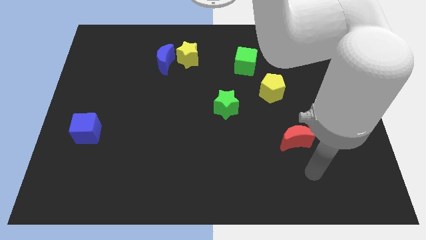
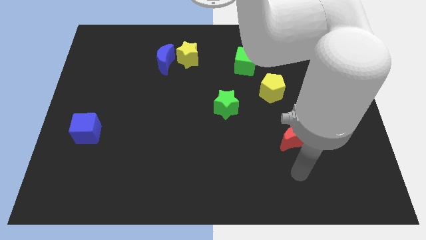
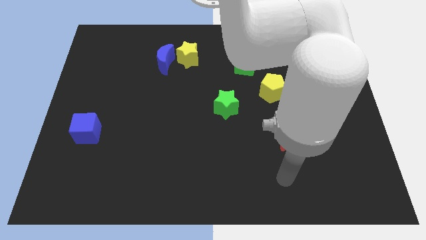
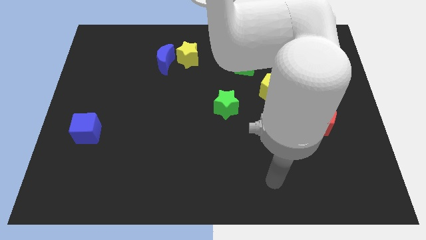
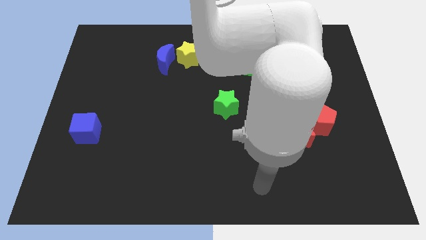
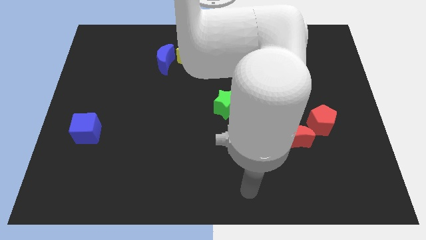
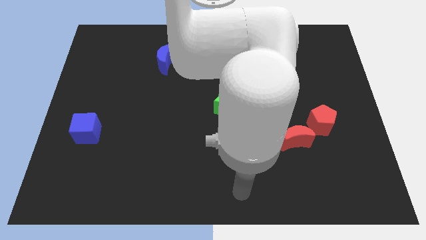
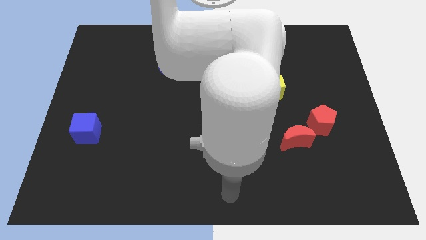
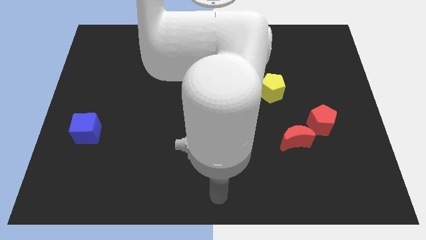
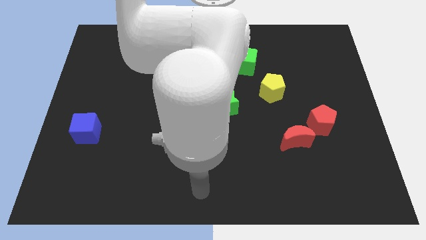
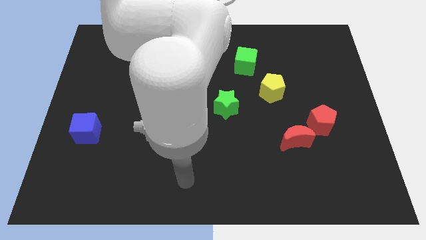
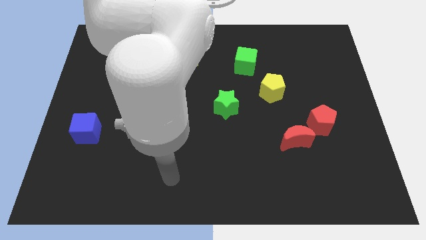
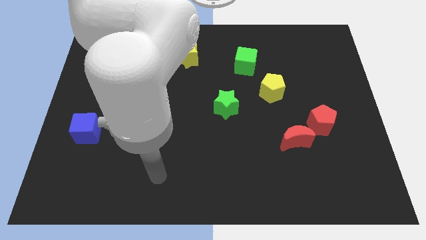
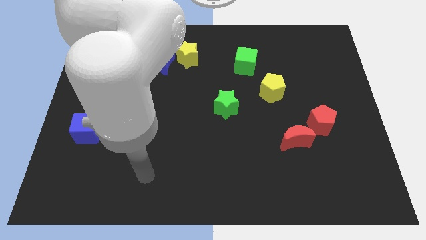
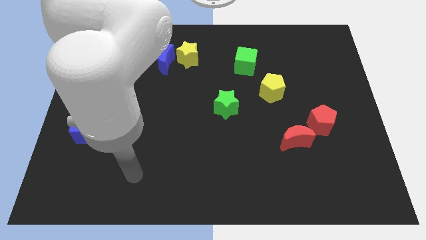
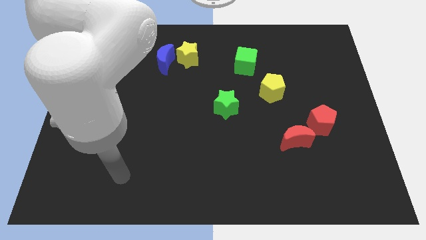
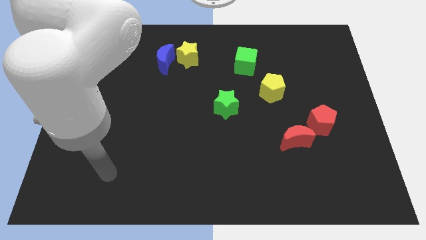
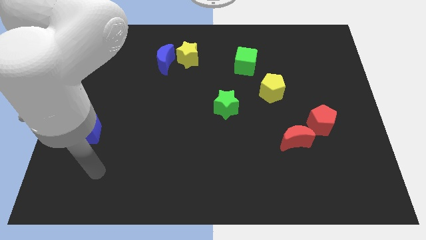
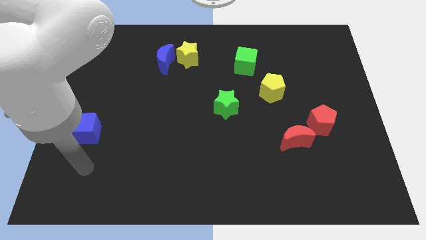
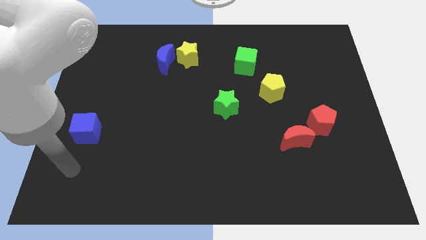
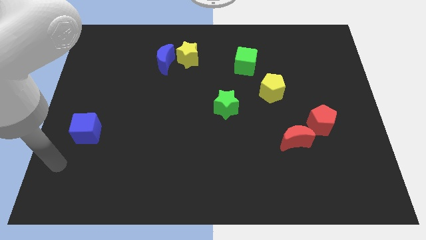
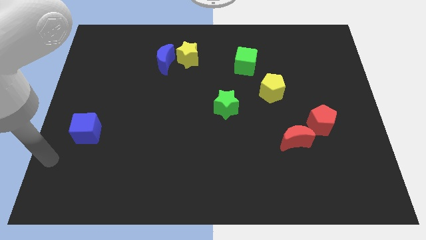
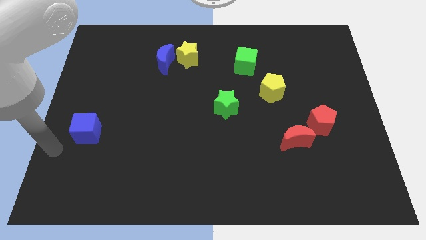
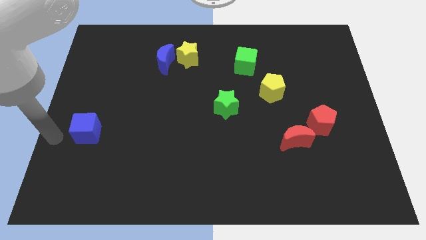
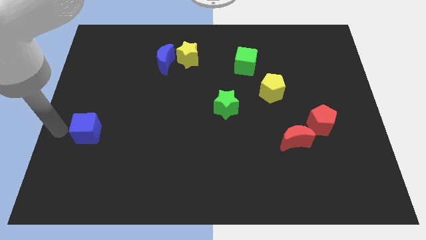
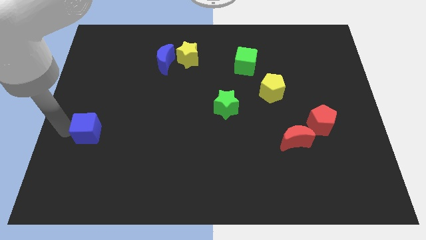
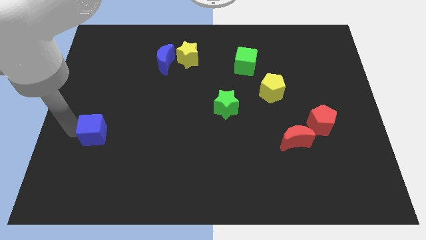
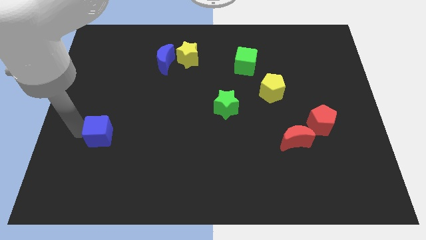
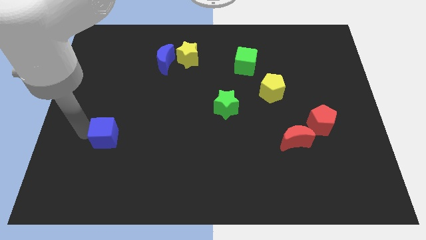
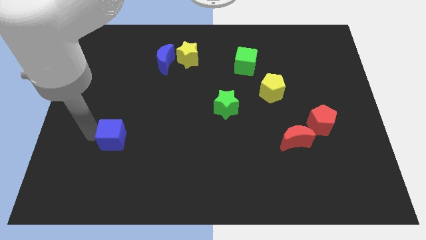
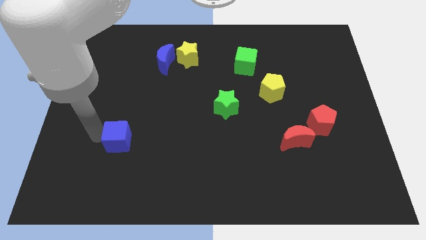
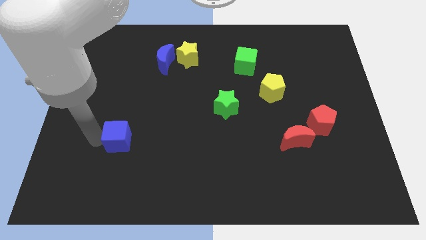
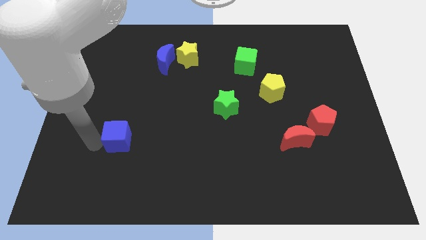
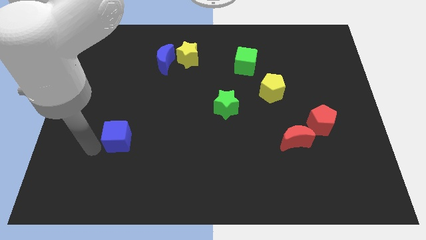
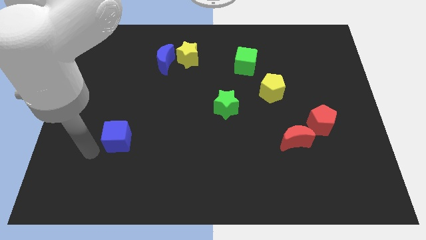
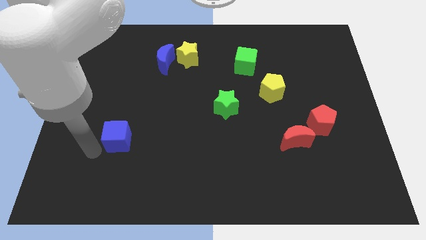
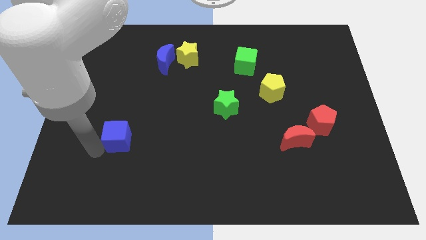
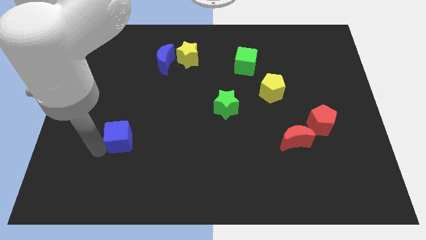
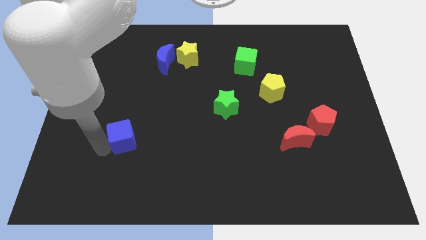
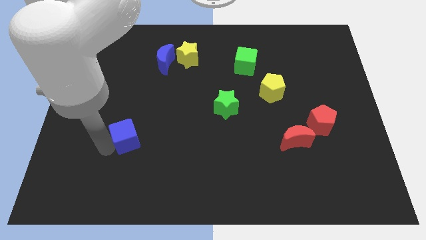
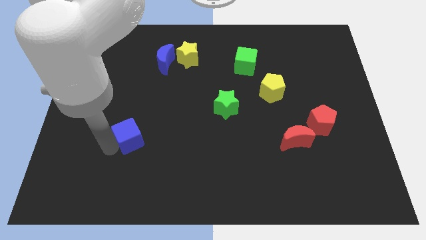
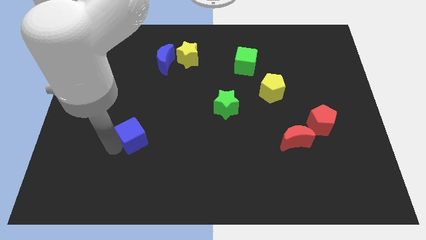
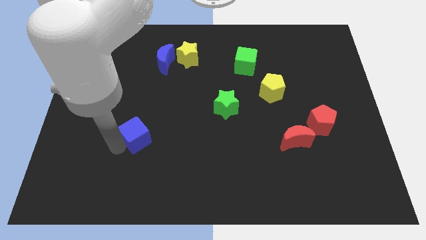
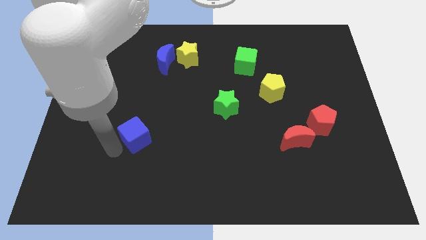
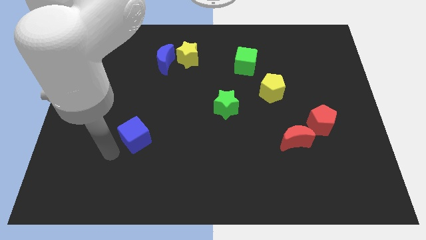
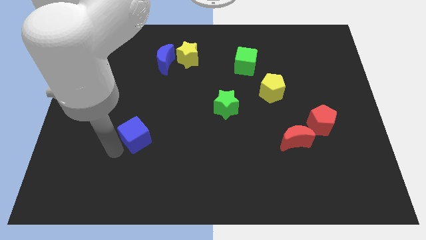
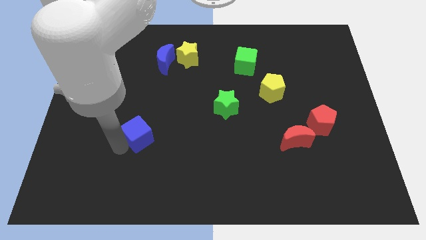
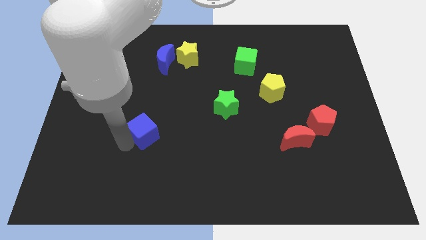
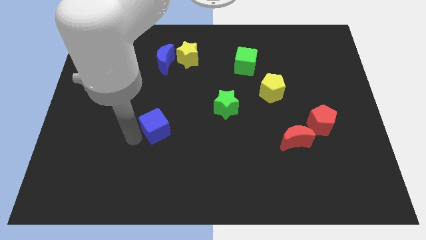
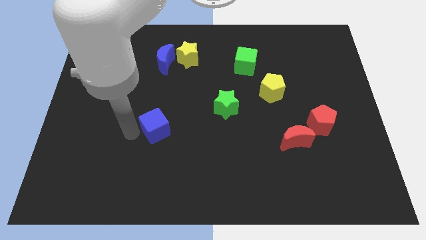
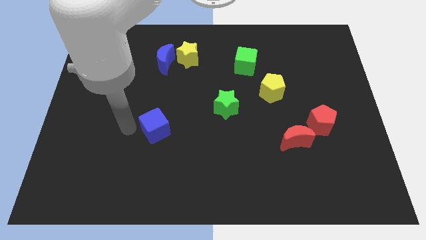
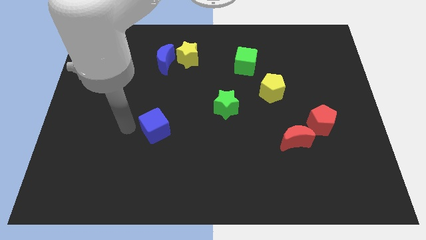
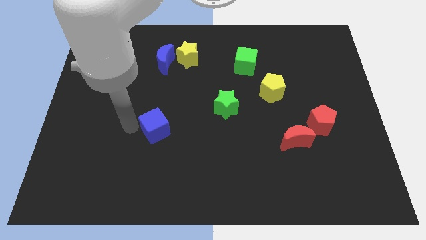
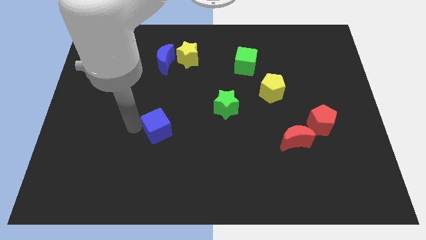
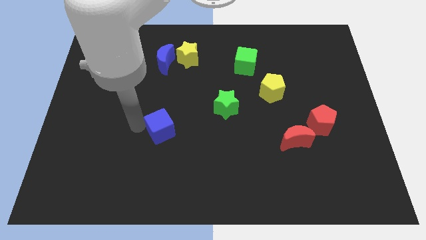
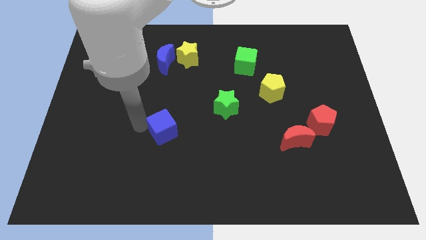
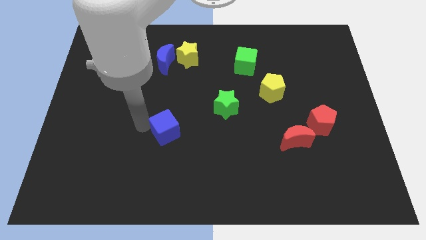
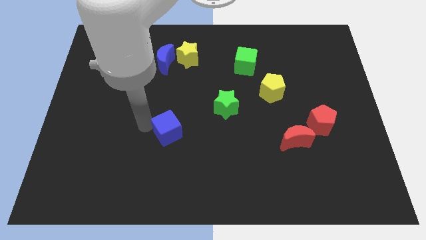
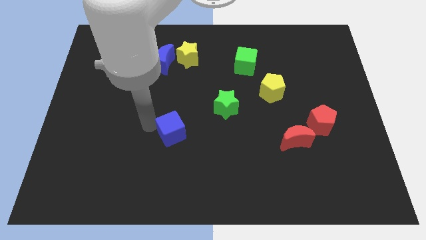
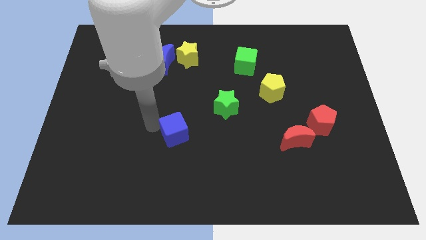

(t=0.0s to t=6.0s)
move the blue cube to the right

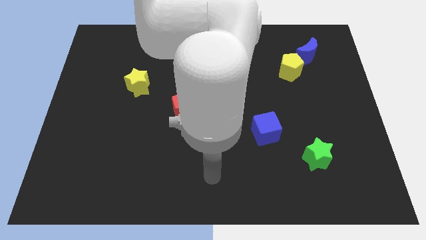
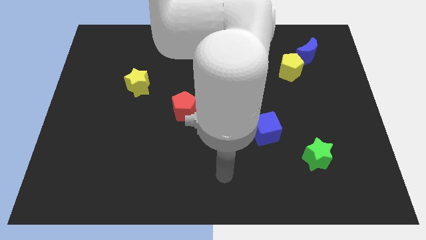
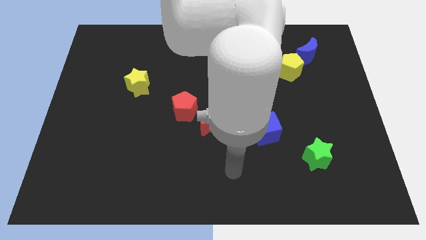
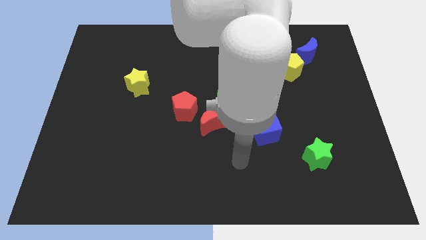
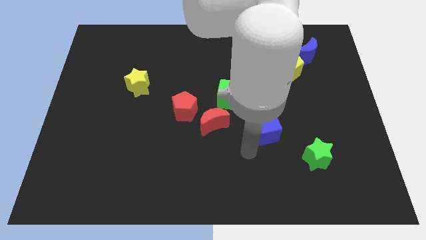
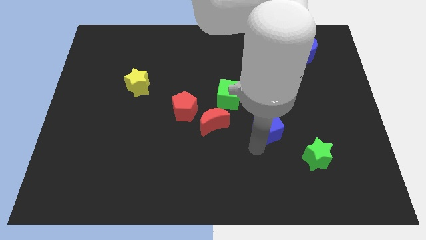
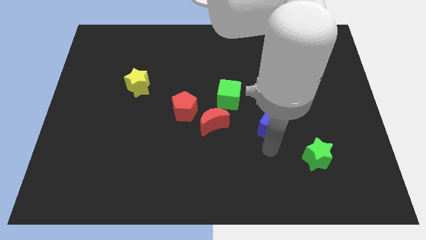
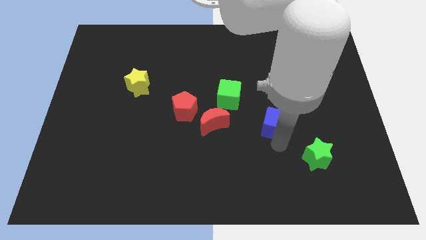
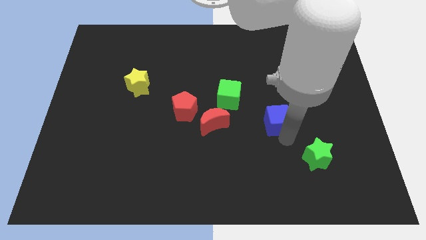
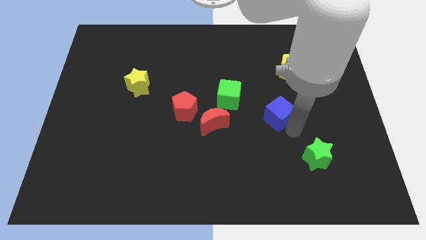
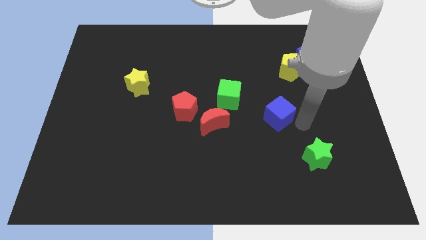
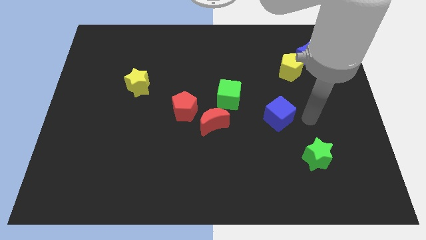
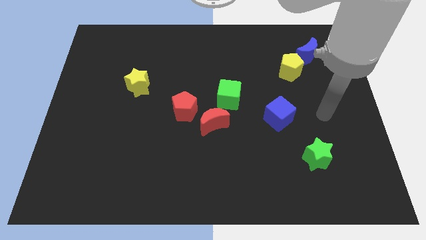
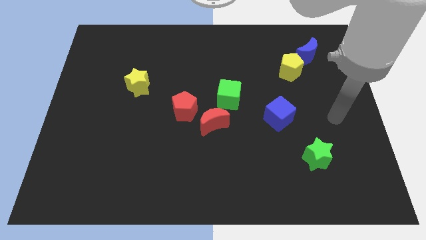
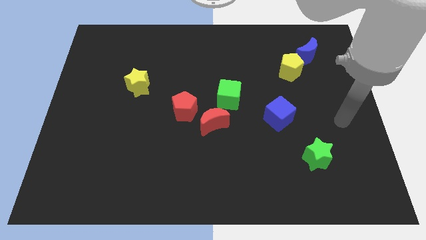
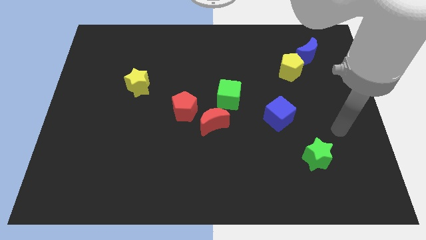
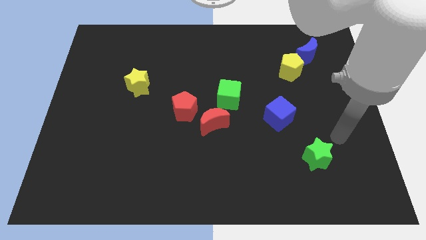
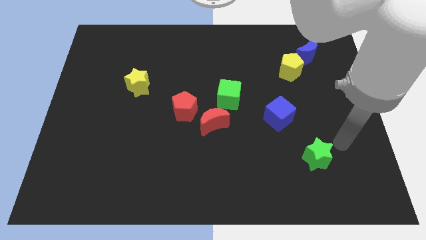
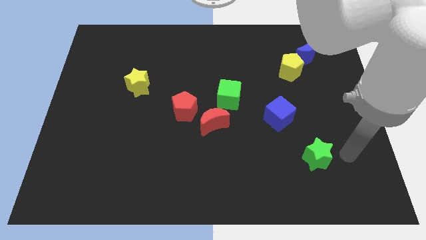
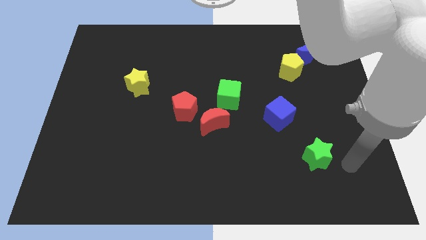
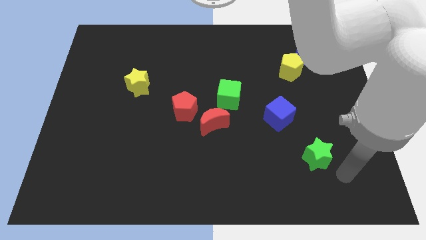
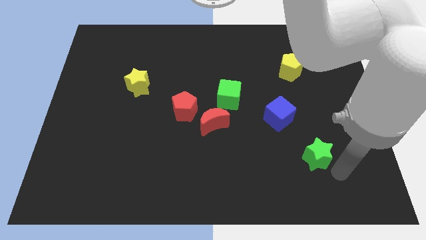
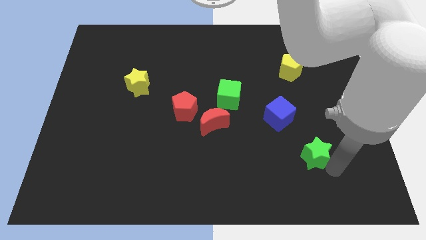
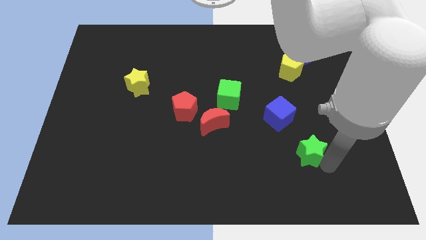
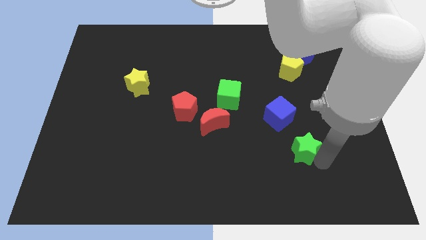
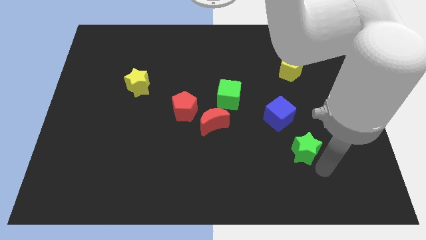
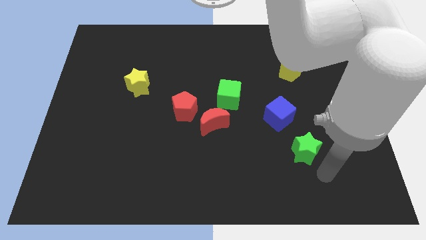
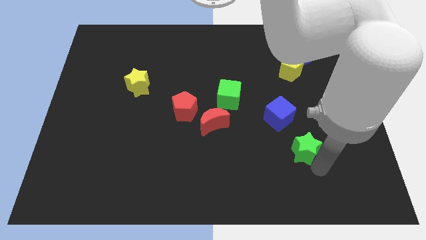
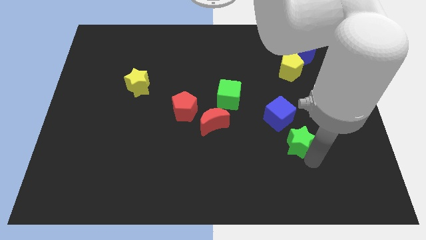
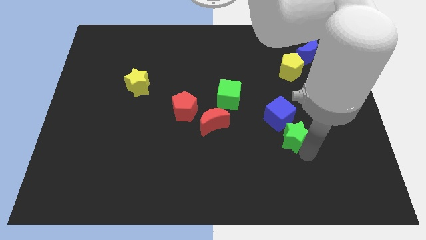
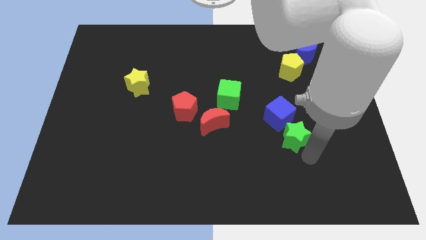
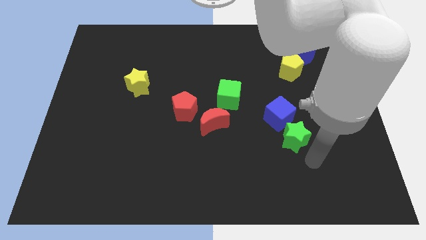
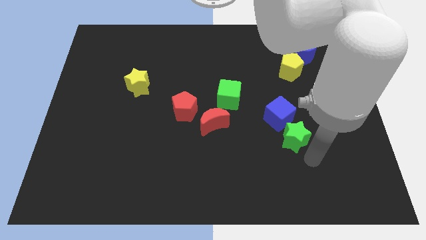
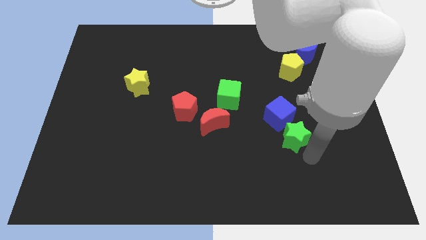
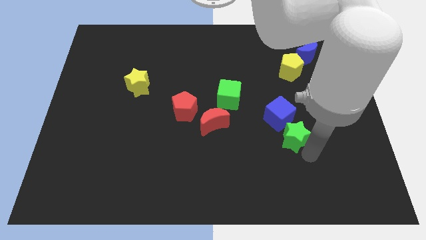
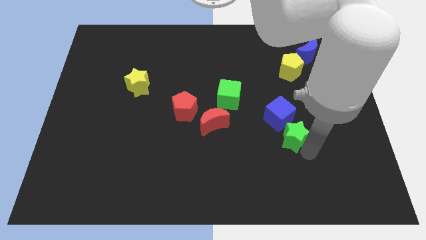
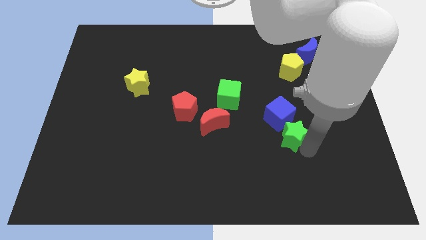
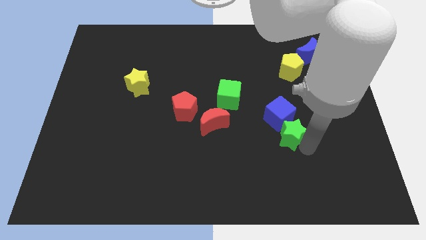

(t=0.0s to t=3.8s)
slide the green star upwards and then to the left a little bit
